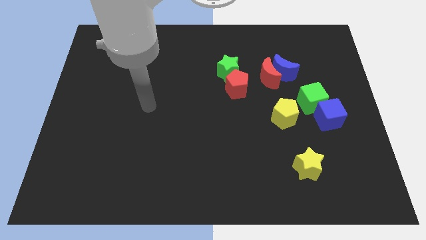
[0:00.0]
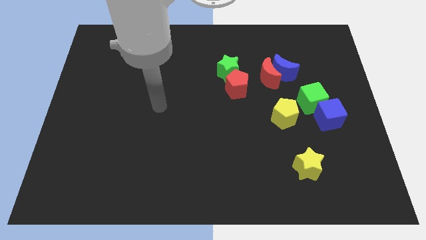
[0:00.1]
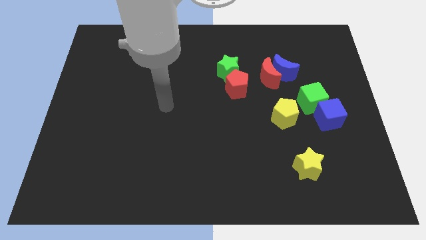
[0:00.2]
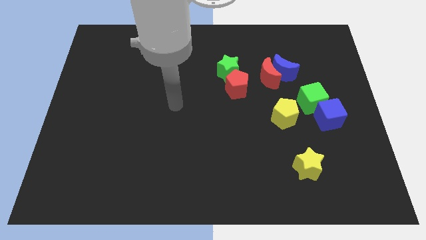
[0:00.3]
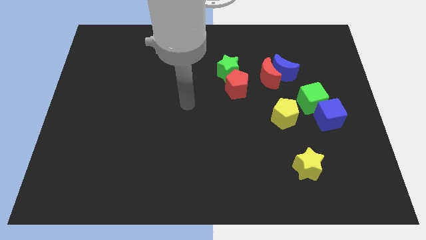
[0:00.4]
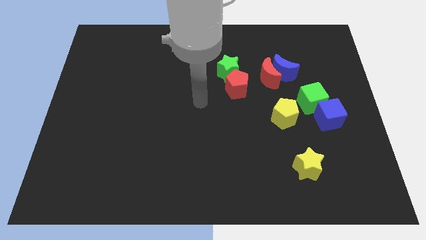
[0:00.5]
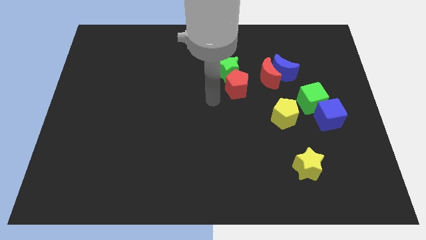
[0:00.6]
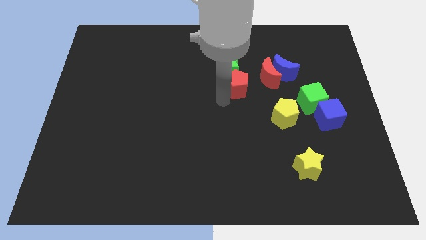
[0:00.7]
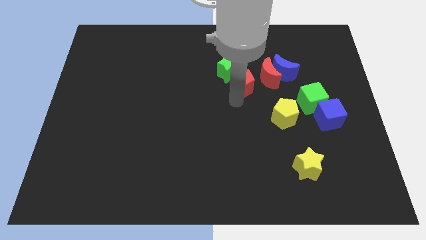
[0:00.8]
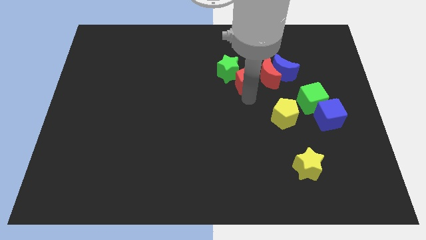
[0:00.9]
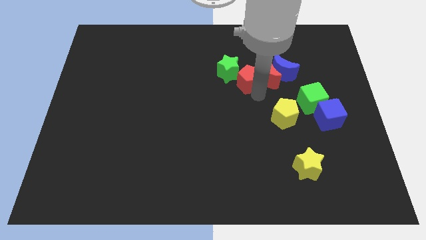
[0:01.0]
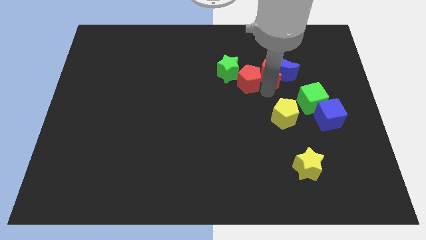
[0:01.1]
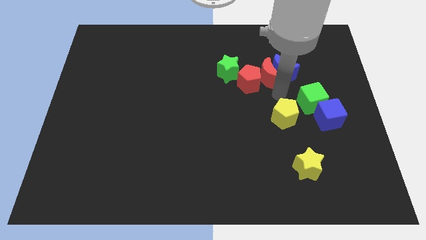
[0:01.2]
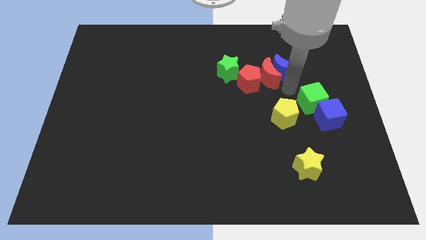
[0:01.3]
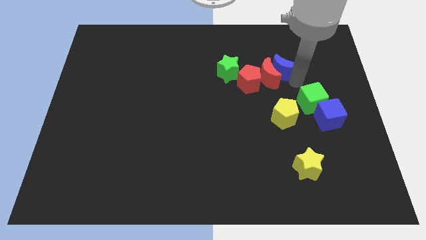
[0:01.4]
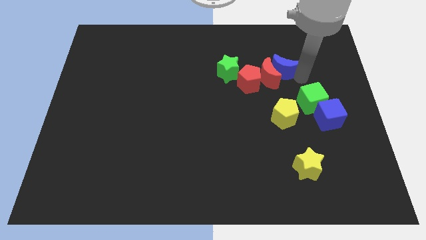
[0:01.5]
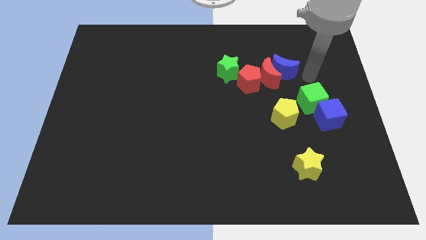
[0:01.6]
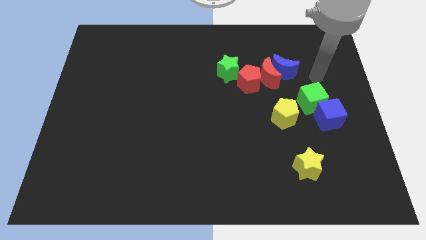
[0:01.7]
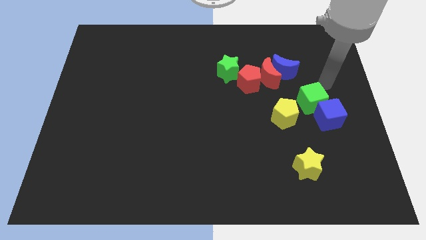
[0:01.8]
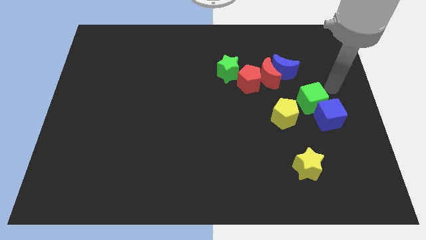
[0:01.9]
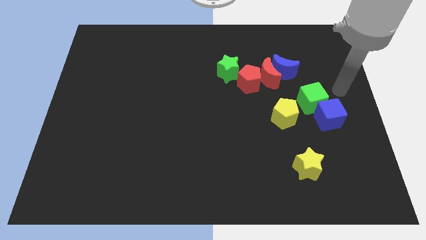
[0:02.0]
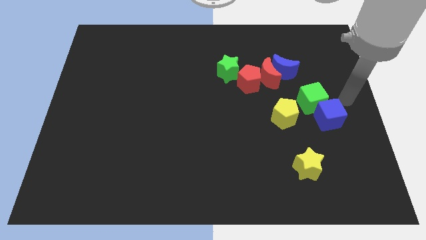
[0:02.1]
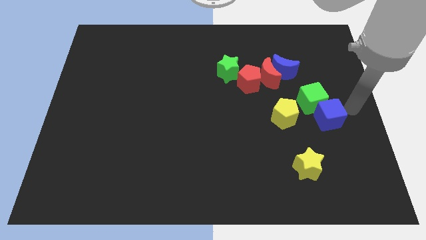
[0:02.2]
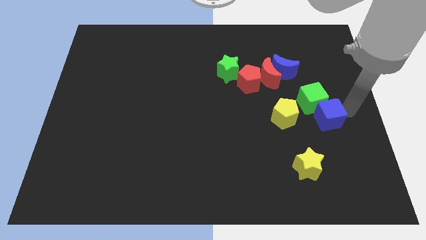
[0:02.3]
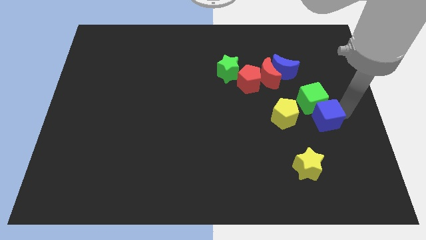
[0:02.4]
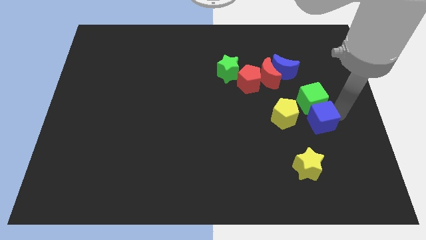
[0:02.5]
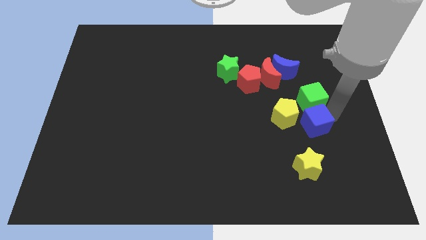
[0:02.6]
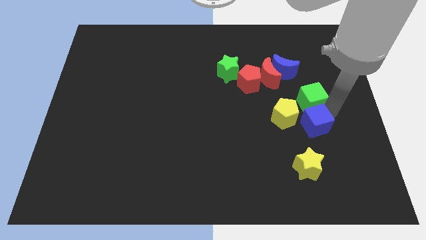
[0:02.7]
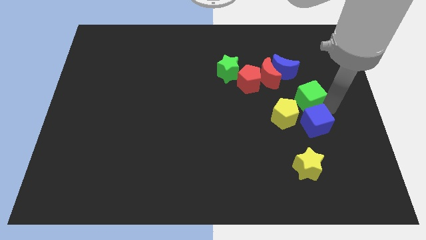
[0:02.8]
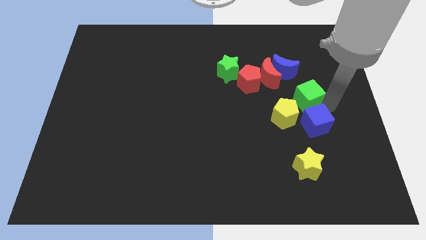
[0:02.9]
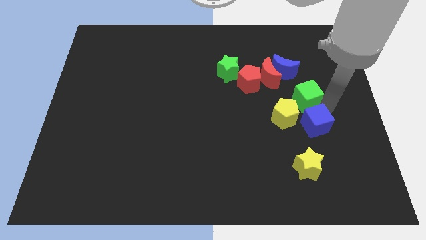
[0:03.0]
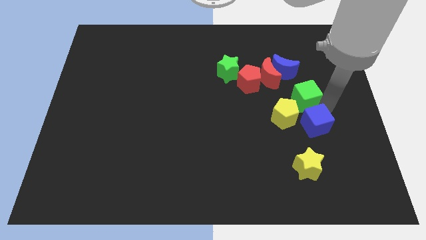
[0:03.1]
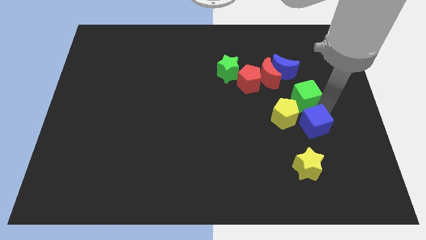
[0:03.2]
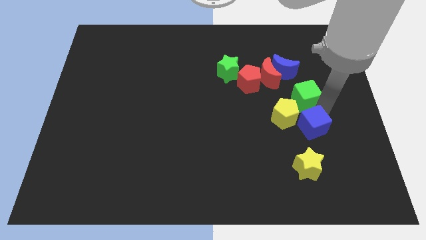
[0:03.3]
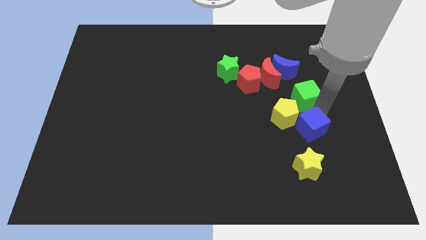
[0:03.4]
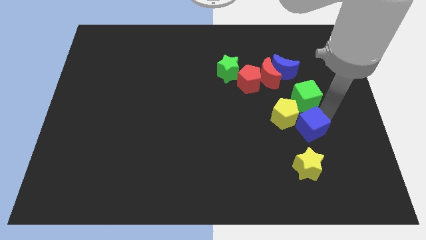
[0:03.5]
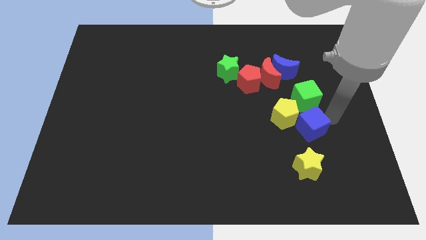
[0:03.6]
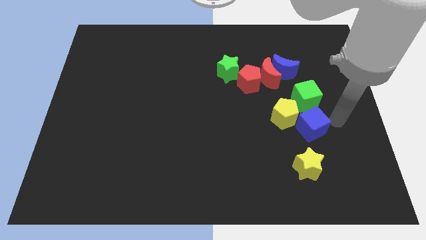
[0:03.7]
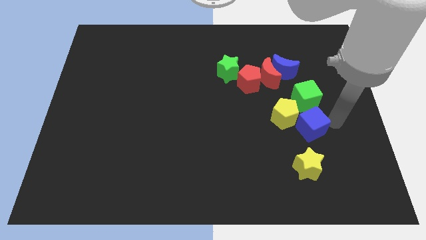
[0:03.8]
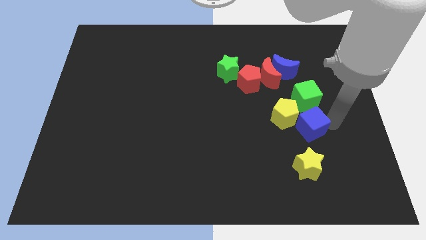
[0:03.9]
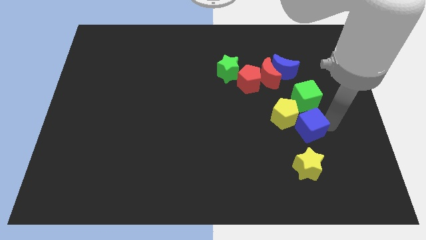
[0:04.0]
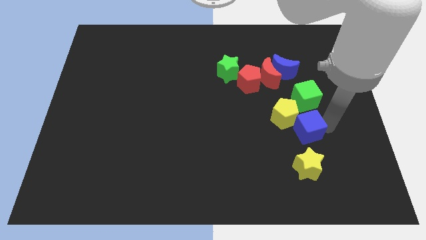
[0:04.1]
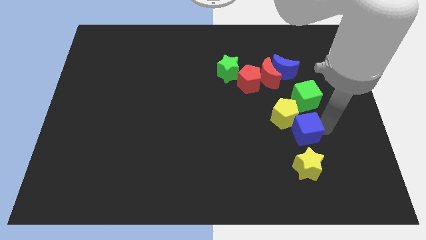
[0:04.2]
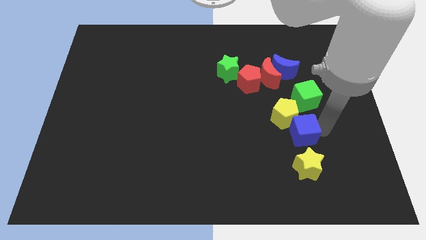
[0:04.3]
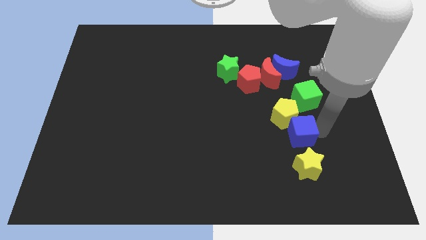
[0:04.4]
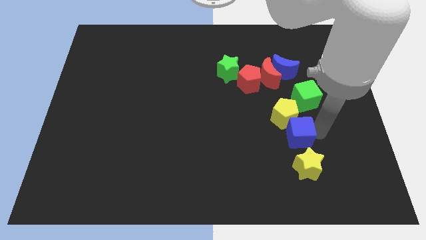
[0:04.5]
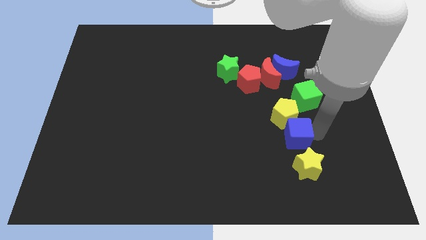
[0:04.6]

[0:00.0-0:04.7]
slide the blue cube left a little

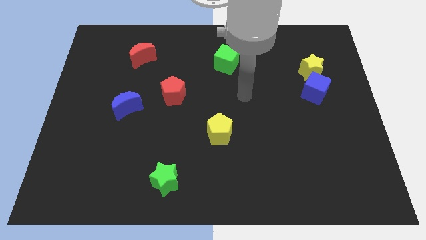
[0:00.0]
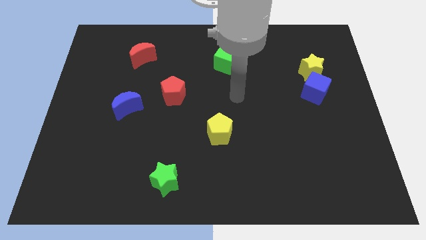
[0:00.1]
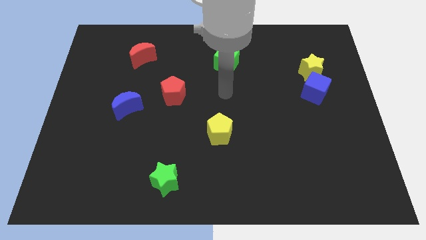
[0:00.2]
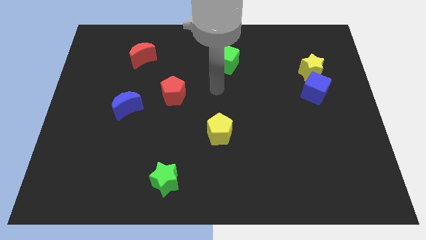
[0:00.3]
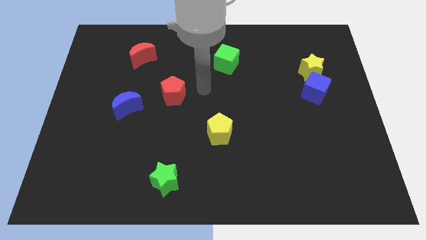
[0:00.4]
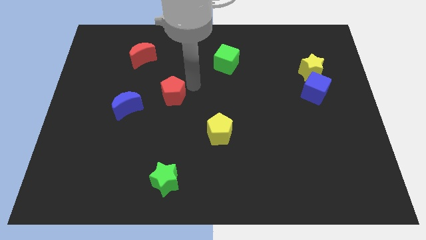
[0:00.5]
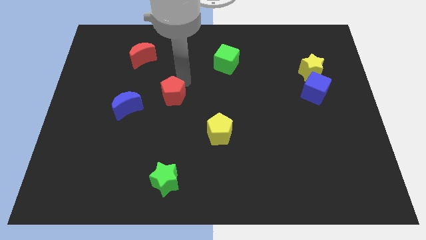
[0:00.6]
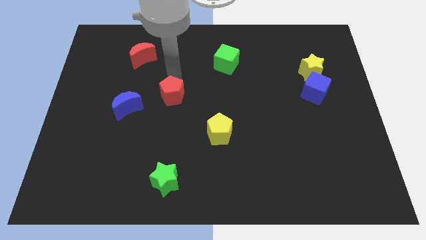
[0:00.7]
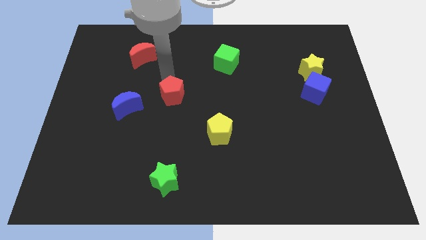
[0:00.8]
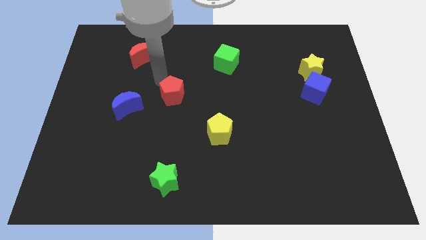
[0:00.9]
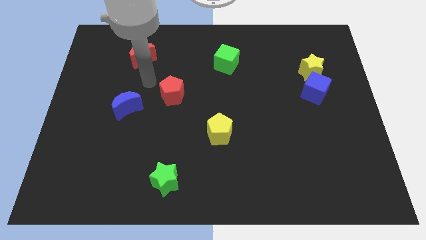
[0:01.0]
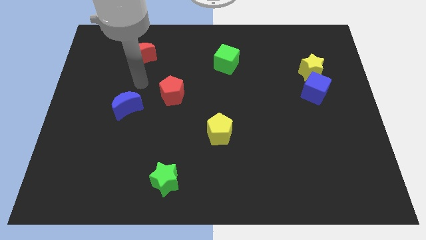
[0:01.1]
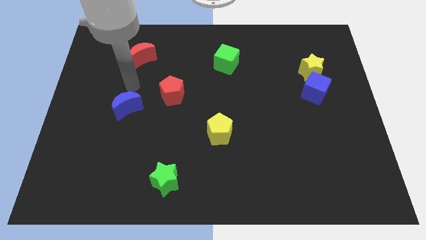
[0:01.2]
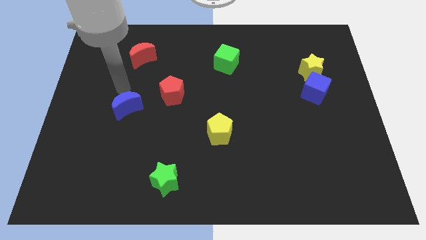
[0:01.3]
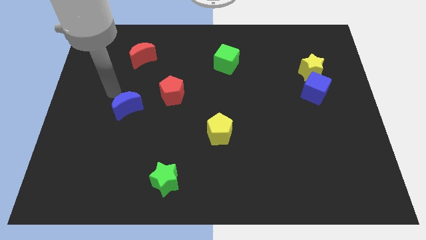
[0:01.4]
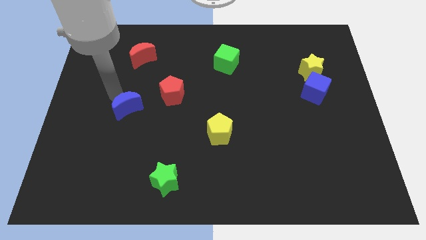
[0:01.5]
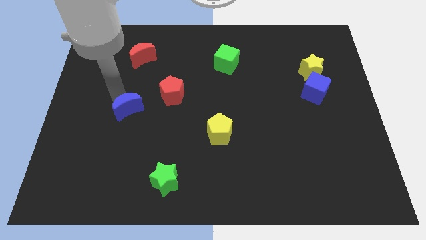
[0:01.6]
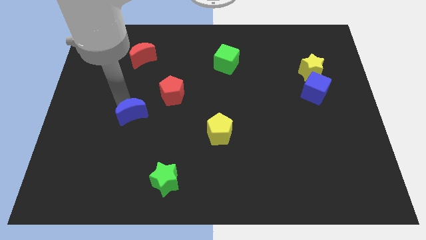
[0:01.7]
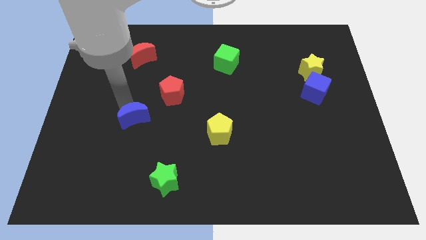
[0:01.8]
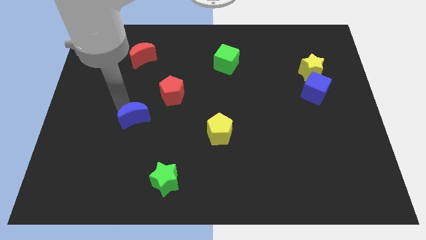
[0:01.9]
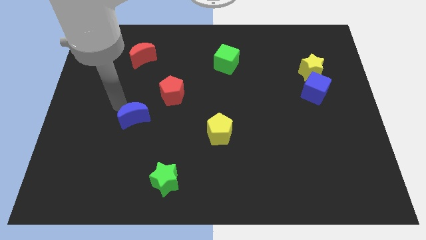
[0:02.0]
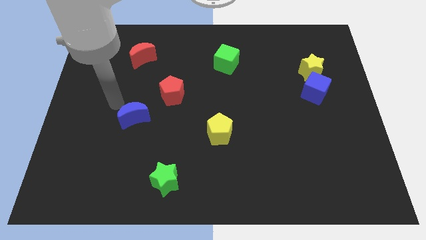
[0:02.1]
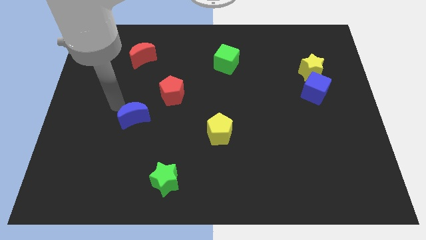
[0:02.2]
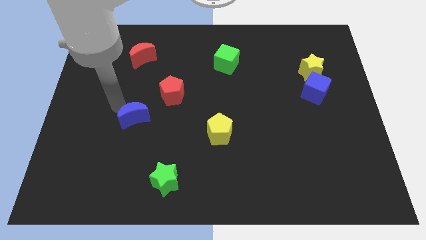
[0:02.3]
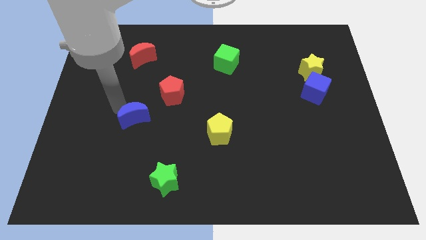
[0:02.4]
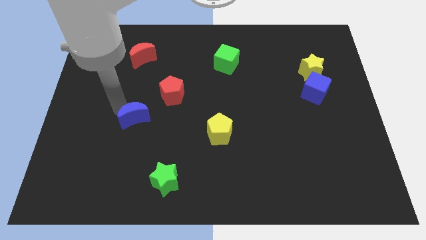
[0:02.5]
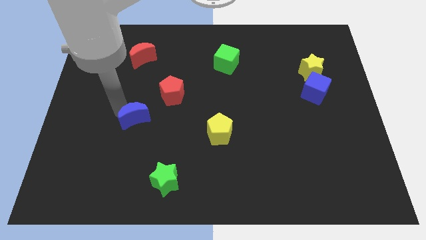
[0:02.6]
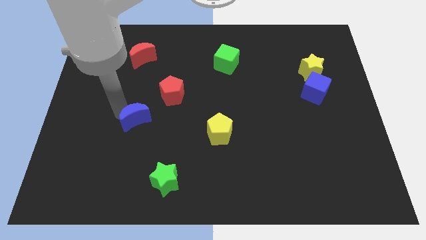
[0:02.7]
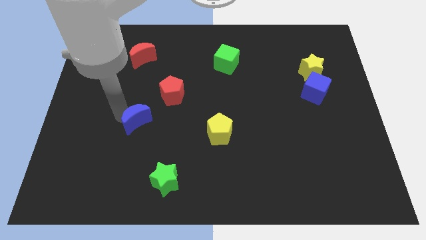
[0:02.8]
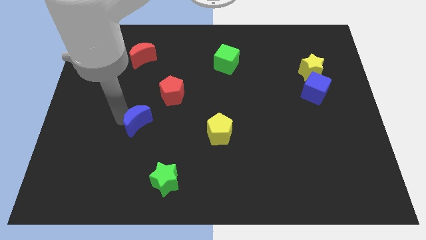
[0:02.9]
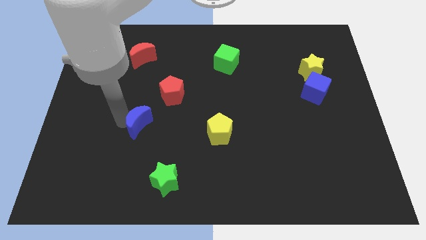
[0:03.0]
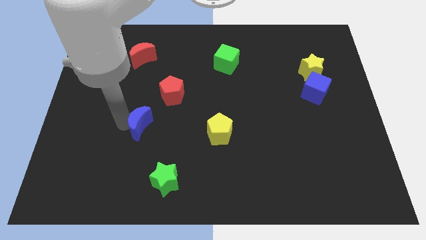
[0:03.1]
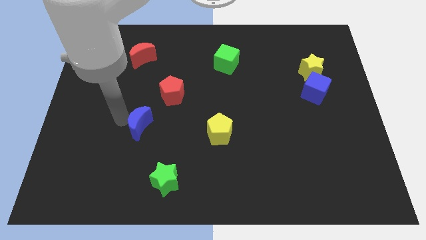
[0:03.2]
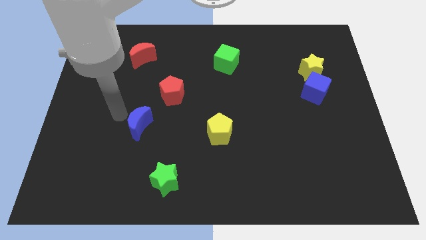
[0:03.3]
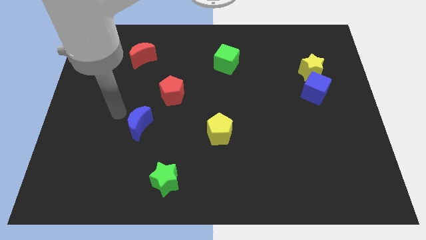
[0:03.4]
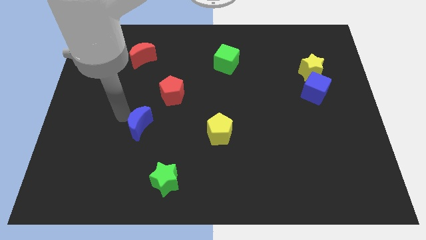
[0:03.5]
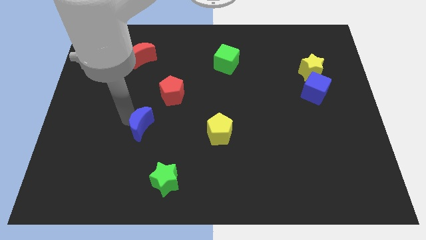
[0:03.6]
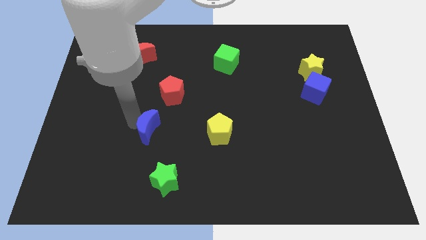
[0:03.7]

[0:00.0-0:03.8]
push the blue moon a bit diagonally downwards and to the right

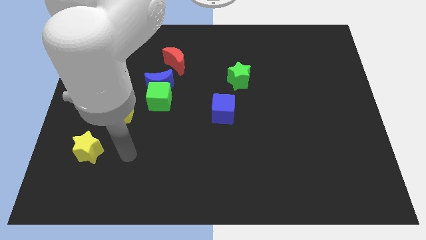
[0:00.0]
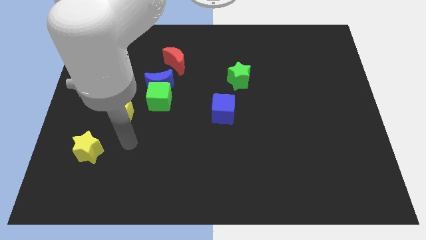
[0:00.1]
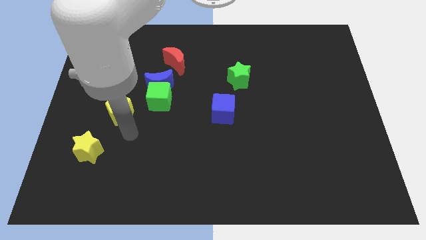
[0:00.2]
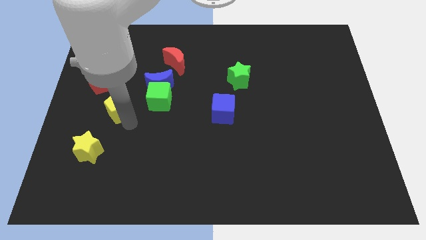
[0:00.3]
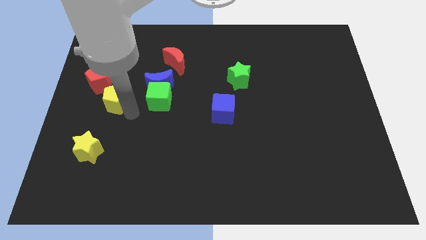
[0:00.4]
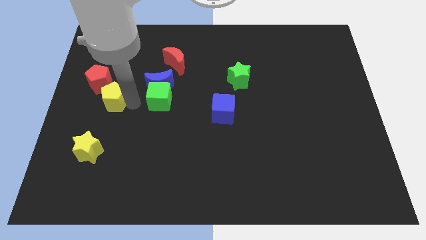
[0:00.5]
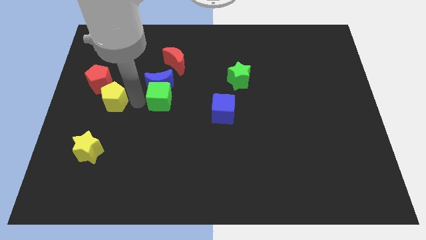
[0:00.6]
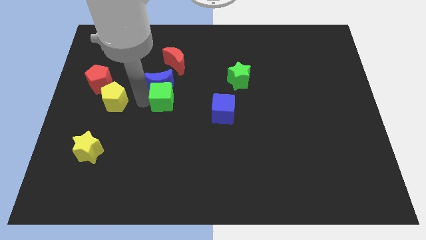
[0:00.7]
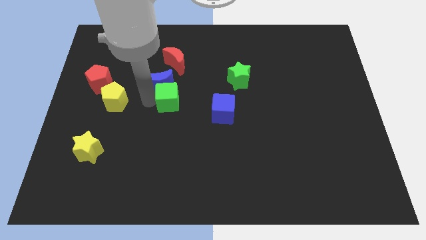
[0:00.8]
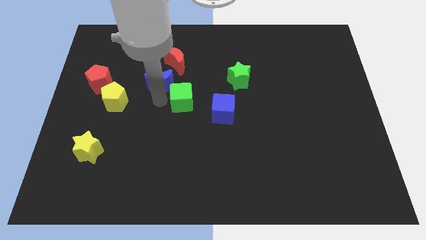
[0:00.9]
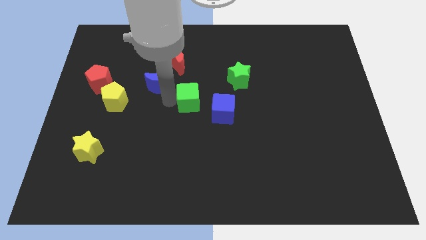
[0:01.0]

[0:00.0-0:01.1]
slide the green cube to the right slightly
